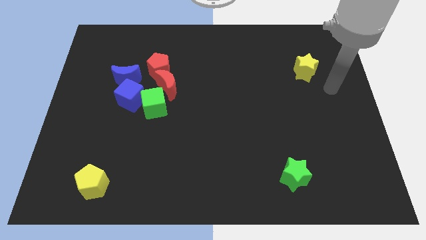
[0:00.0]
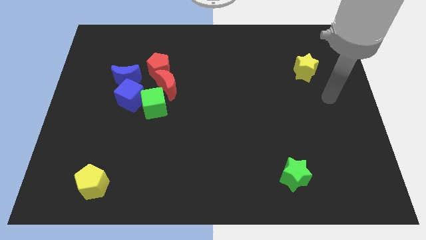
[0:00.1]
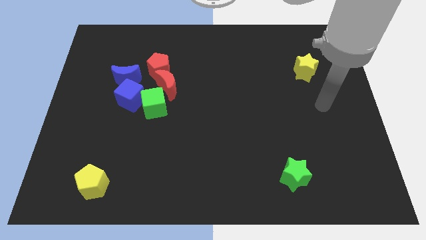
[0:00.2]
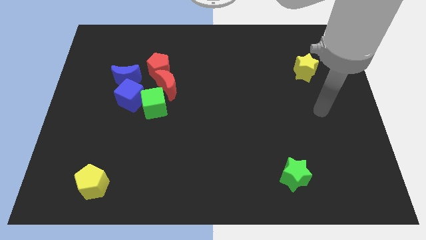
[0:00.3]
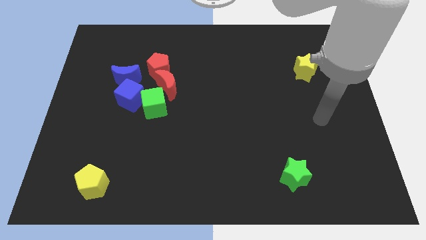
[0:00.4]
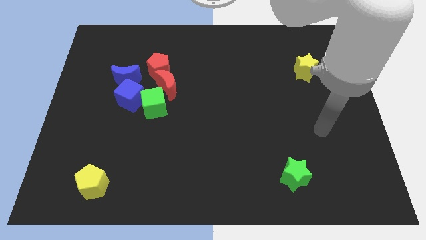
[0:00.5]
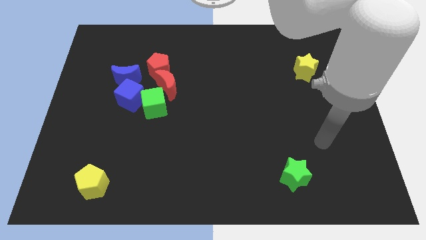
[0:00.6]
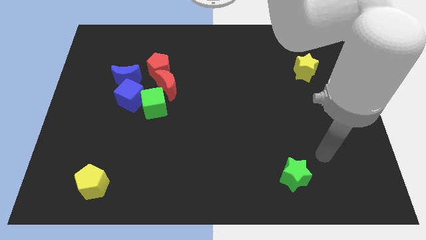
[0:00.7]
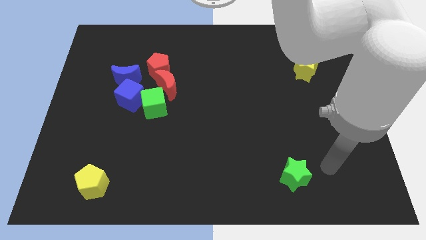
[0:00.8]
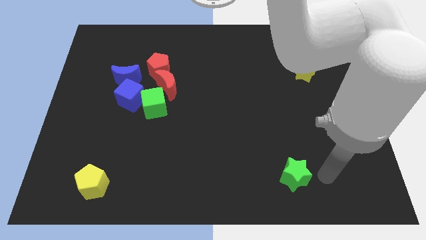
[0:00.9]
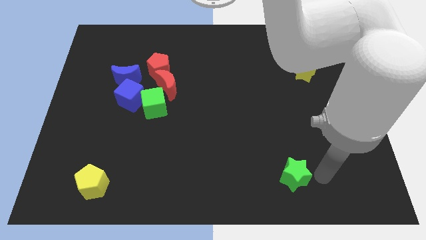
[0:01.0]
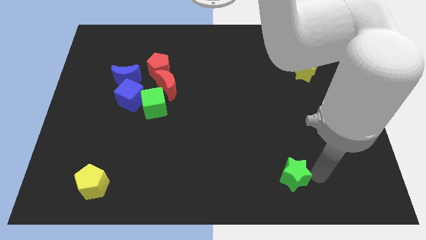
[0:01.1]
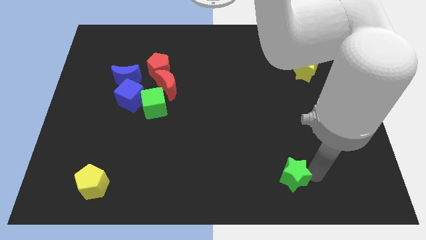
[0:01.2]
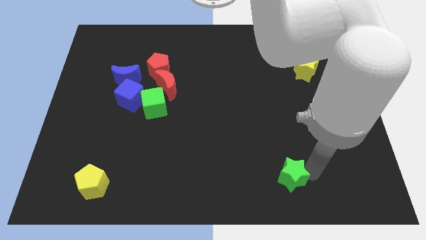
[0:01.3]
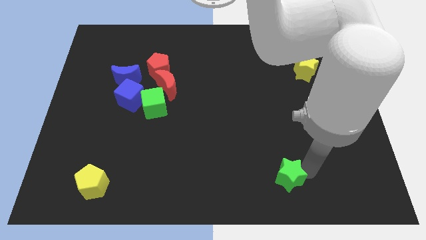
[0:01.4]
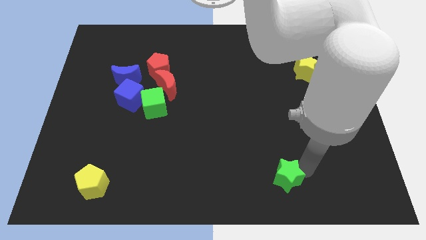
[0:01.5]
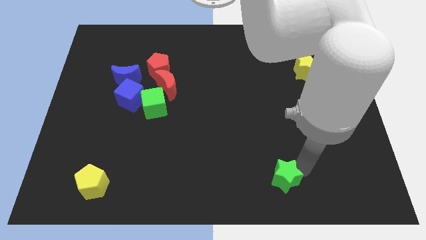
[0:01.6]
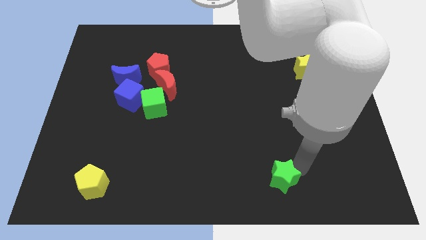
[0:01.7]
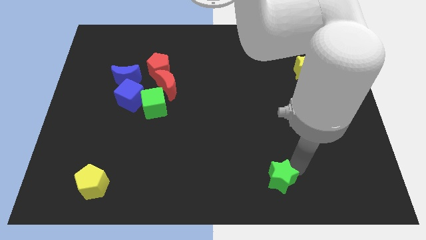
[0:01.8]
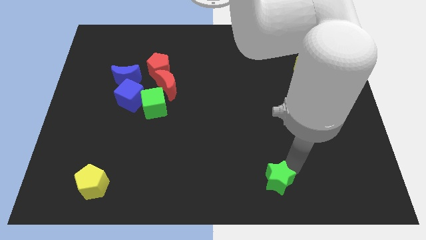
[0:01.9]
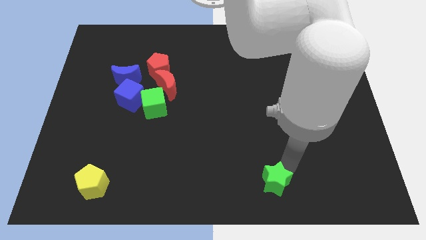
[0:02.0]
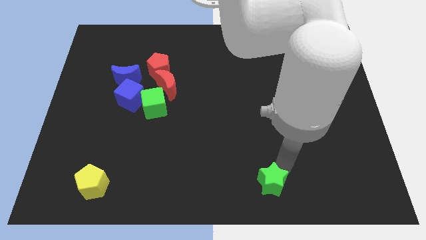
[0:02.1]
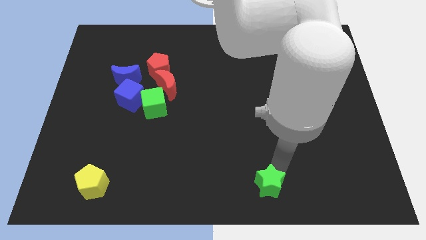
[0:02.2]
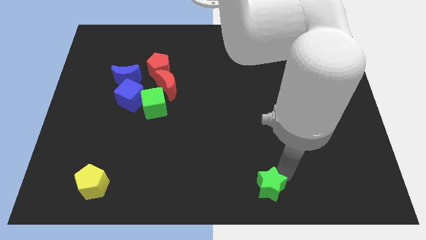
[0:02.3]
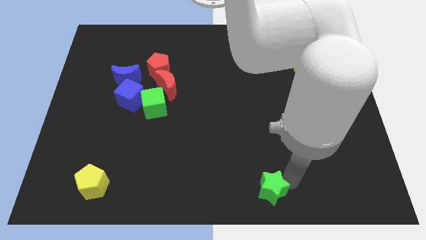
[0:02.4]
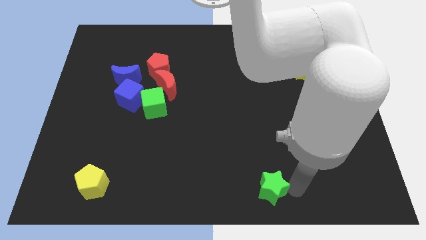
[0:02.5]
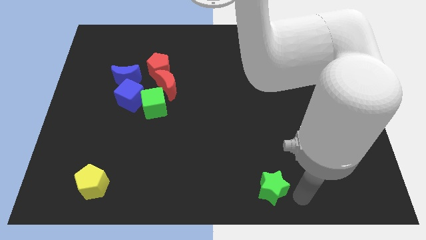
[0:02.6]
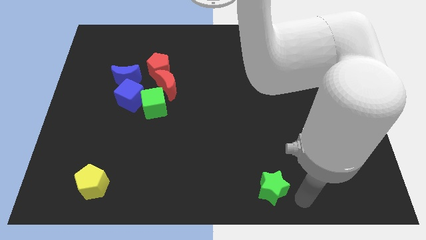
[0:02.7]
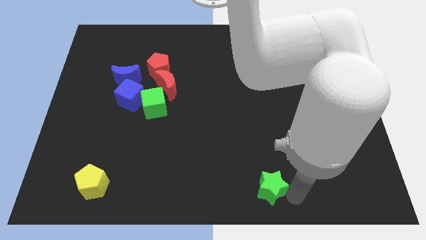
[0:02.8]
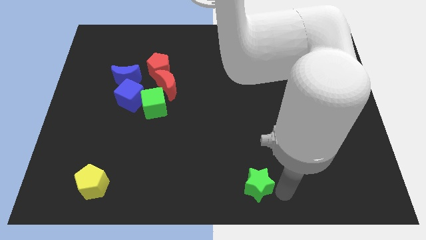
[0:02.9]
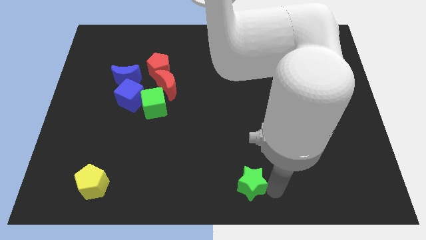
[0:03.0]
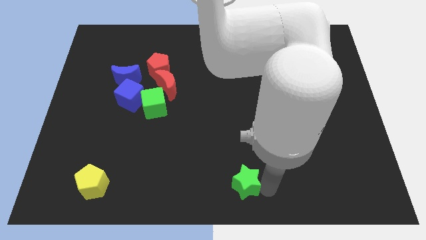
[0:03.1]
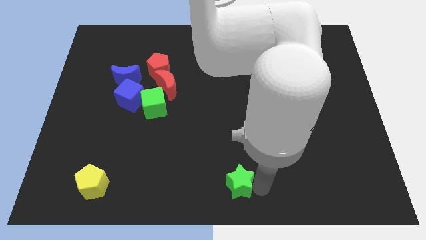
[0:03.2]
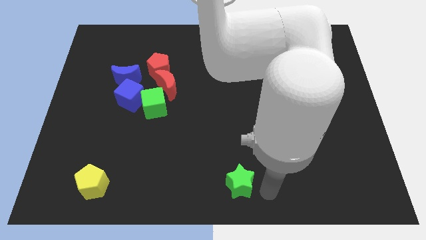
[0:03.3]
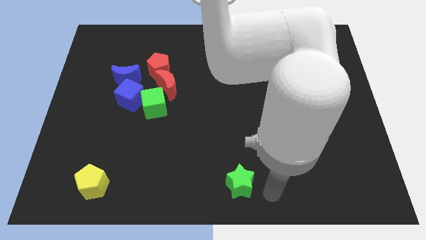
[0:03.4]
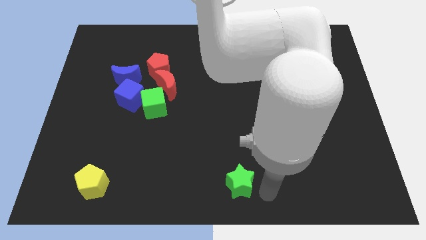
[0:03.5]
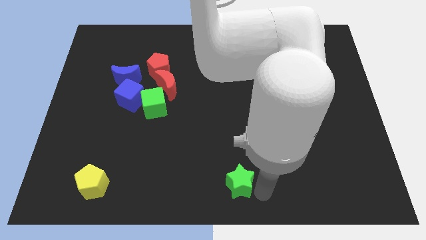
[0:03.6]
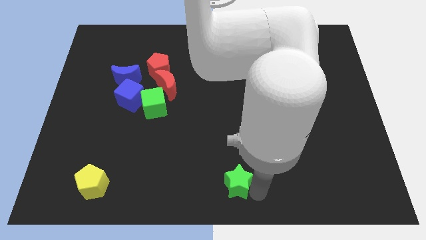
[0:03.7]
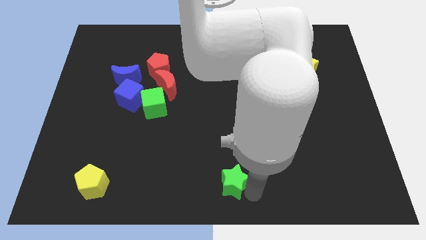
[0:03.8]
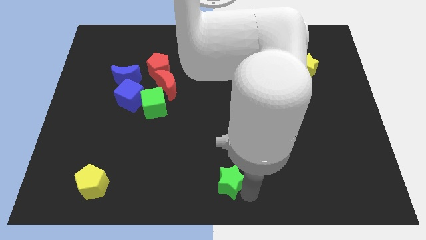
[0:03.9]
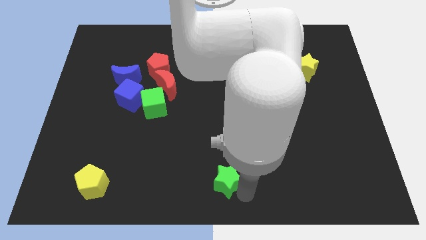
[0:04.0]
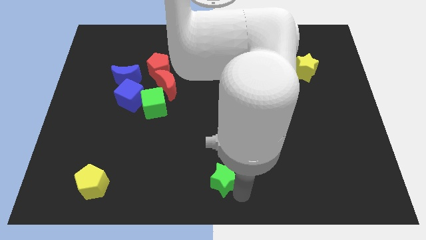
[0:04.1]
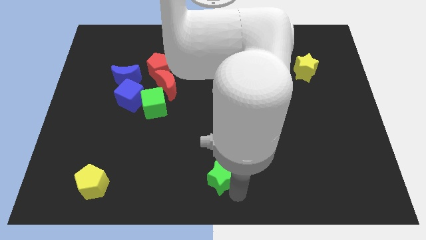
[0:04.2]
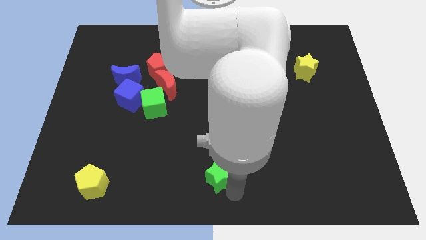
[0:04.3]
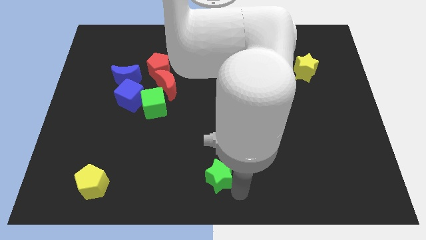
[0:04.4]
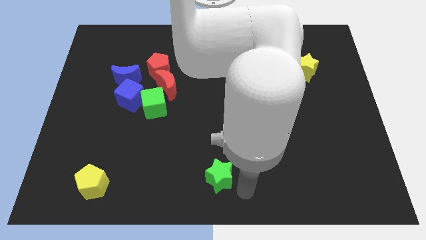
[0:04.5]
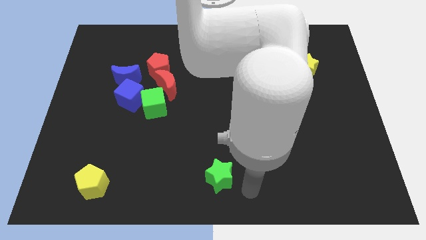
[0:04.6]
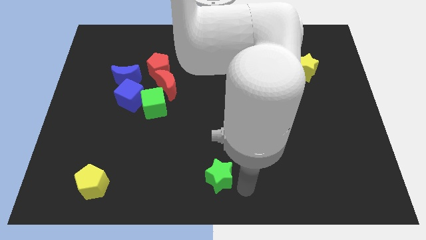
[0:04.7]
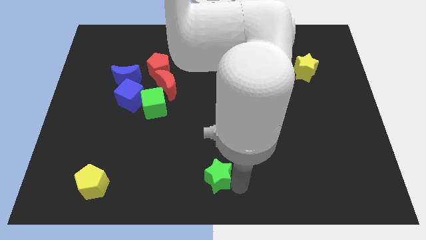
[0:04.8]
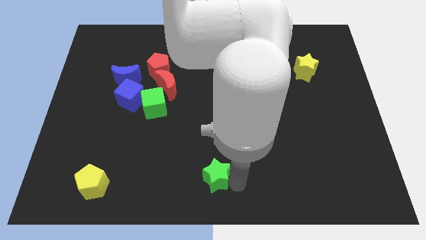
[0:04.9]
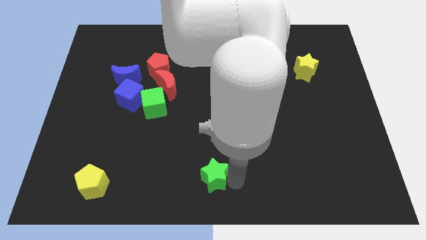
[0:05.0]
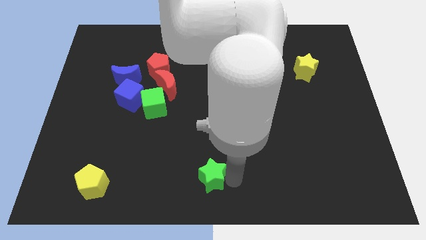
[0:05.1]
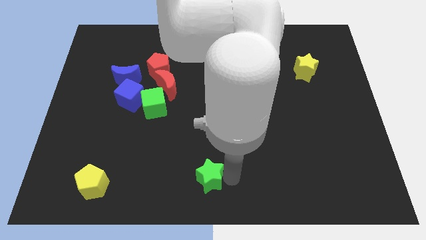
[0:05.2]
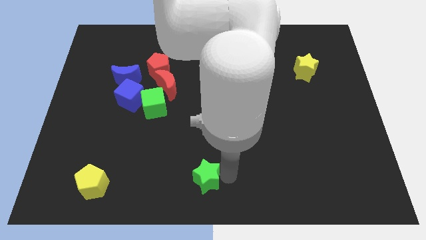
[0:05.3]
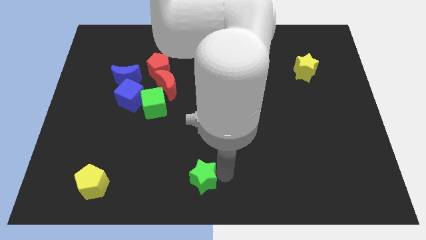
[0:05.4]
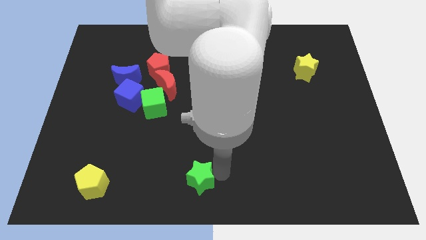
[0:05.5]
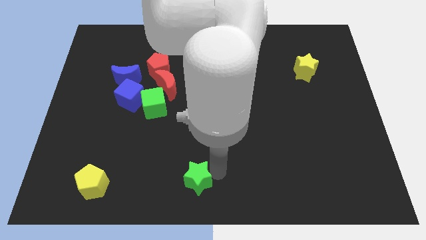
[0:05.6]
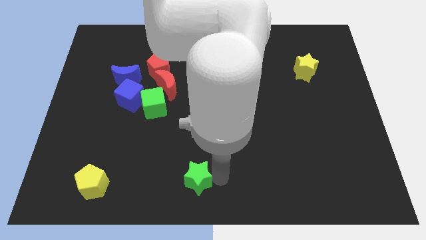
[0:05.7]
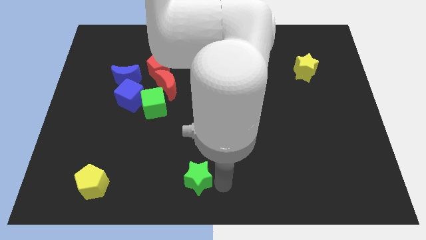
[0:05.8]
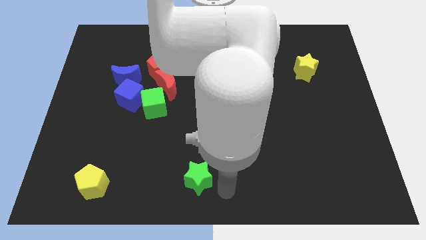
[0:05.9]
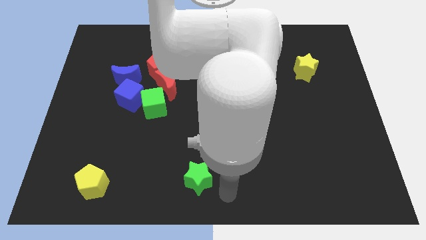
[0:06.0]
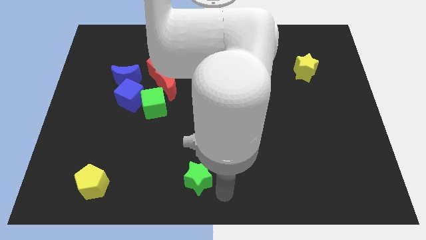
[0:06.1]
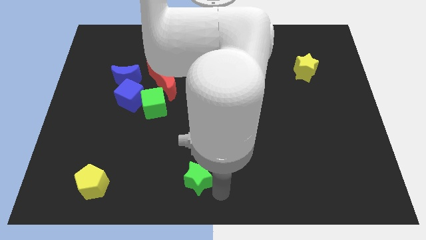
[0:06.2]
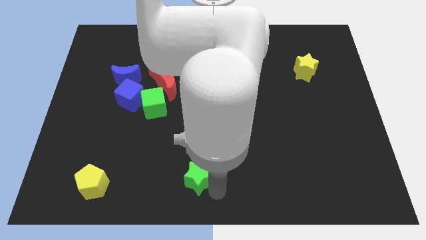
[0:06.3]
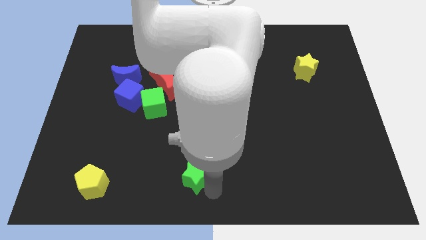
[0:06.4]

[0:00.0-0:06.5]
move the green star left

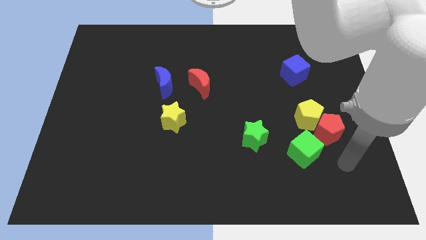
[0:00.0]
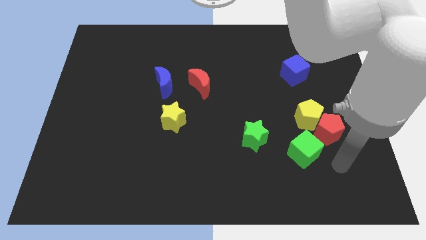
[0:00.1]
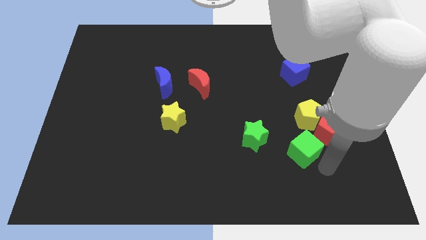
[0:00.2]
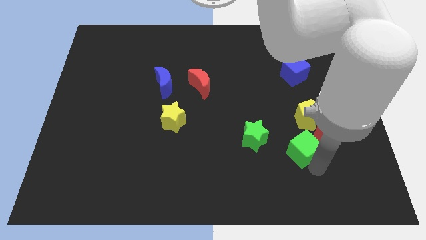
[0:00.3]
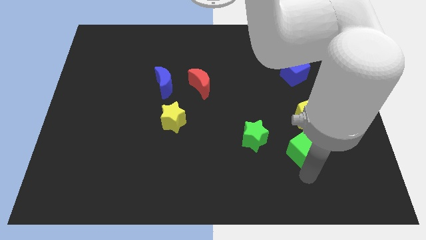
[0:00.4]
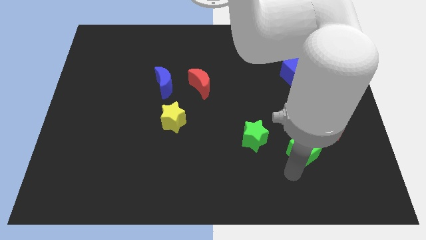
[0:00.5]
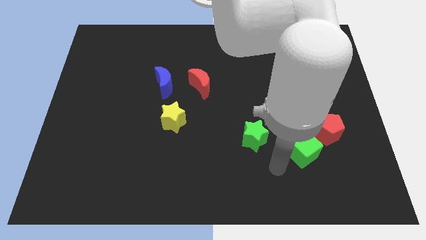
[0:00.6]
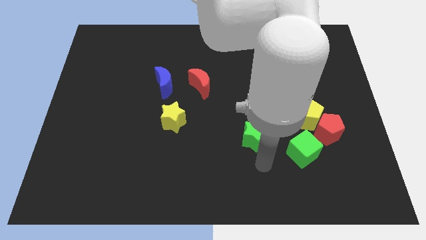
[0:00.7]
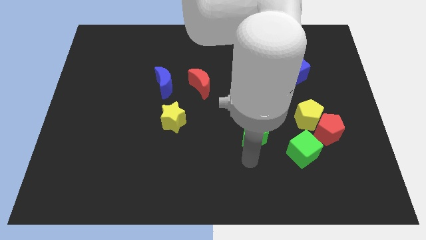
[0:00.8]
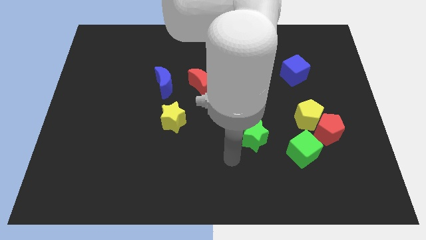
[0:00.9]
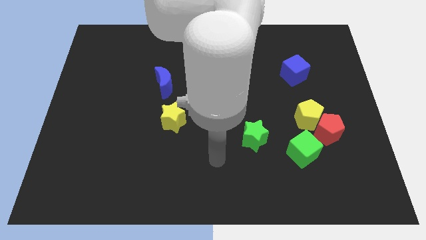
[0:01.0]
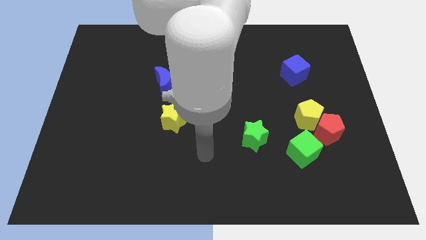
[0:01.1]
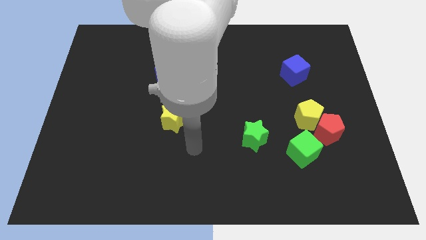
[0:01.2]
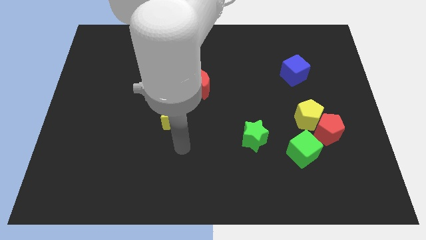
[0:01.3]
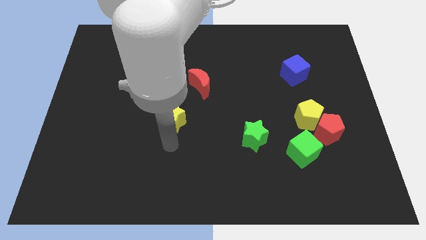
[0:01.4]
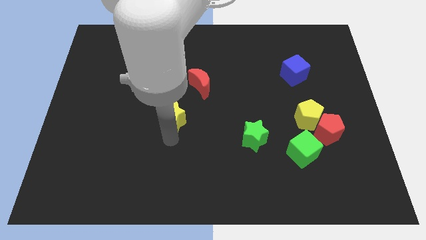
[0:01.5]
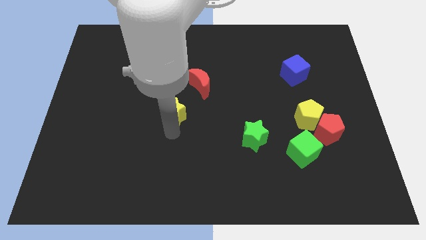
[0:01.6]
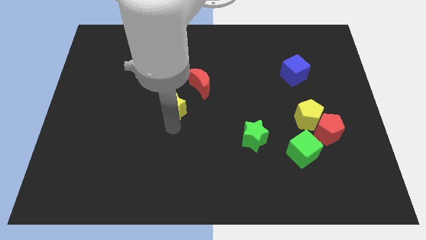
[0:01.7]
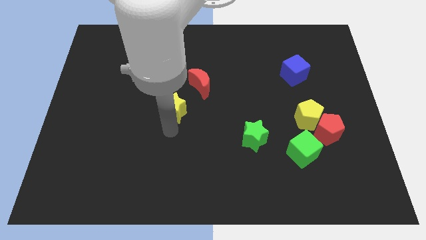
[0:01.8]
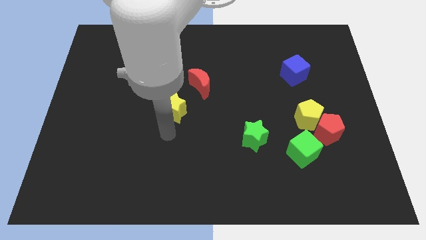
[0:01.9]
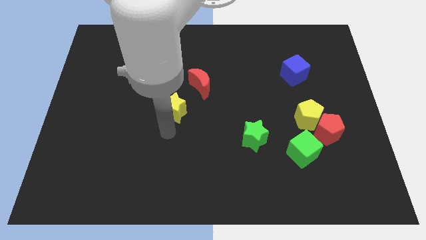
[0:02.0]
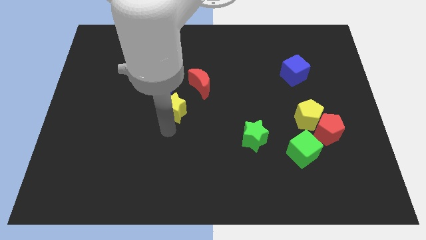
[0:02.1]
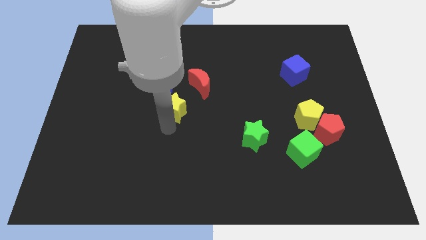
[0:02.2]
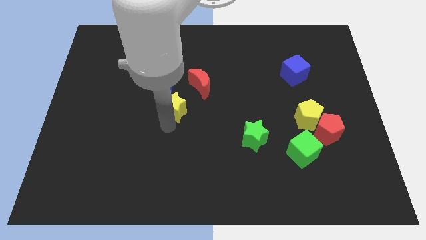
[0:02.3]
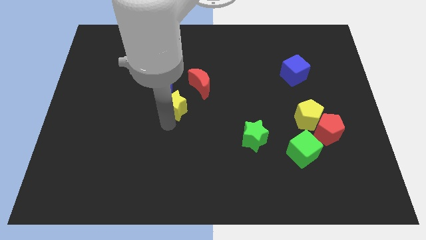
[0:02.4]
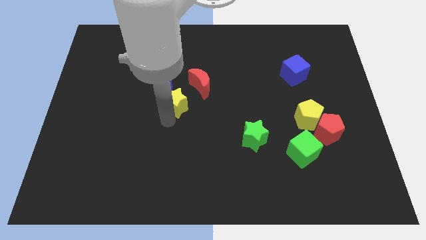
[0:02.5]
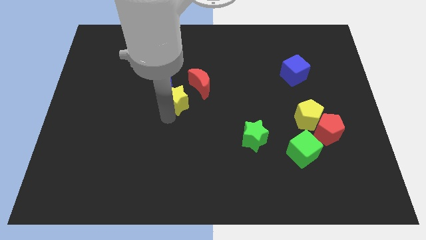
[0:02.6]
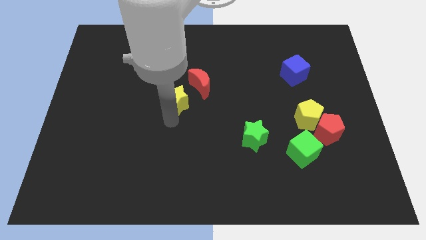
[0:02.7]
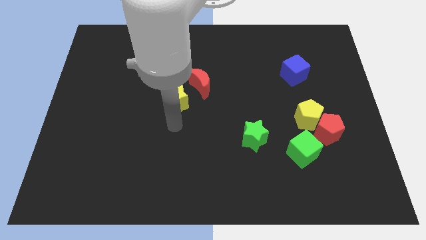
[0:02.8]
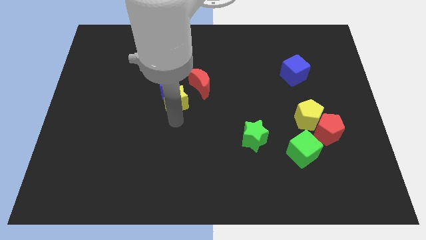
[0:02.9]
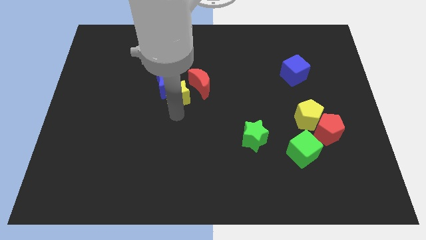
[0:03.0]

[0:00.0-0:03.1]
slightly push the yellow star up
